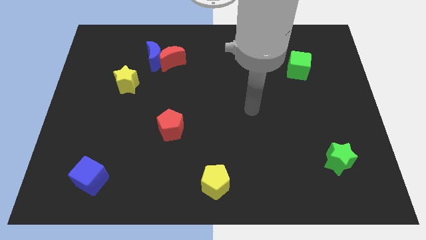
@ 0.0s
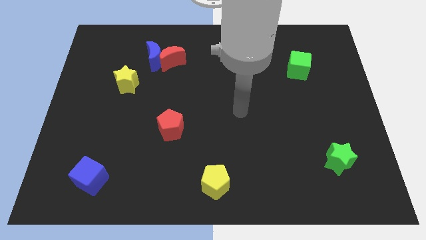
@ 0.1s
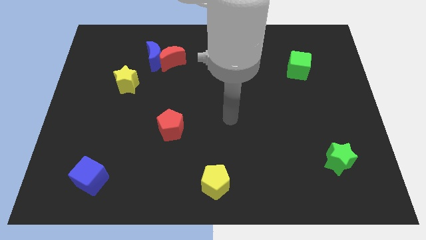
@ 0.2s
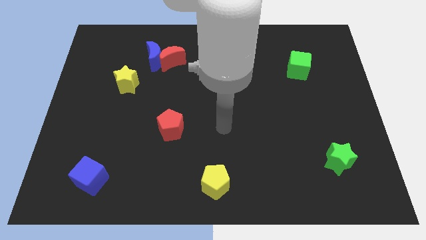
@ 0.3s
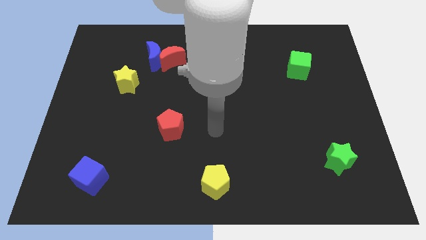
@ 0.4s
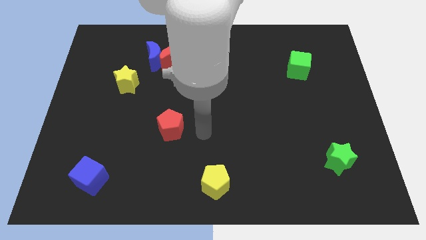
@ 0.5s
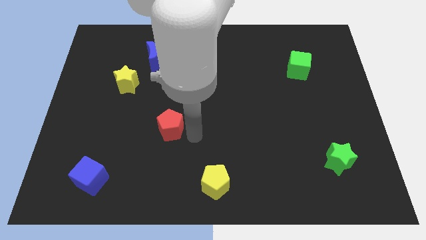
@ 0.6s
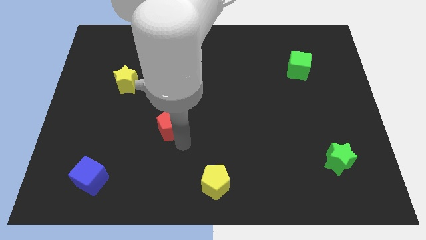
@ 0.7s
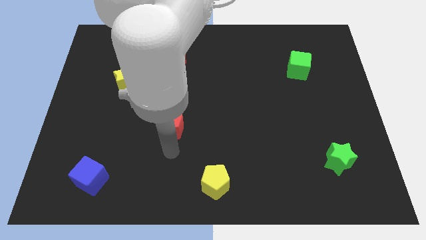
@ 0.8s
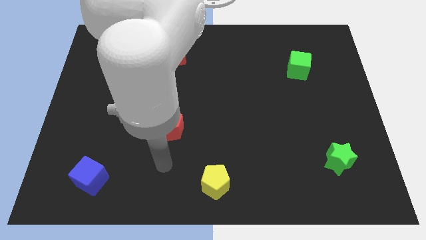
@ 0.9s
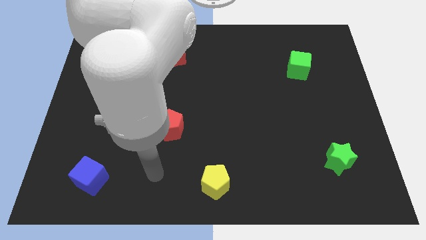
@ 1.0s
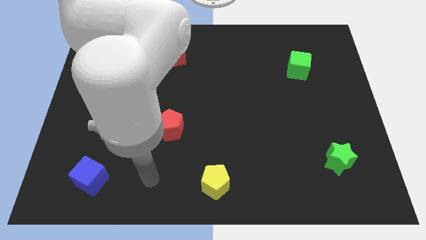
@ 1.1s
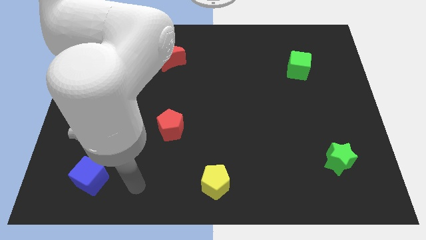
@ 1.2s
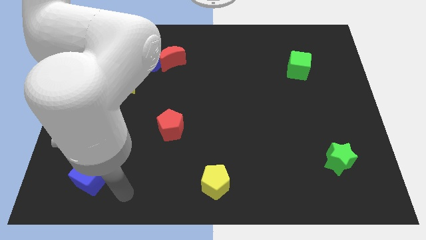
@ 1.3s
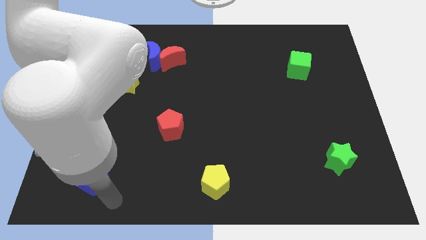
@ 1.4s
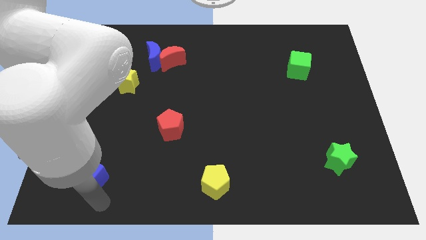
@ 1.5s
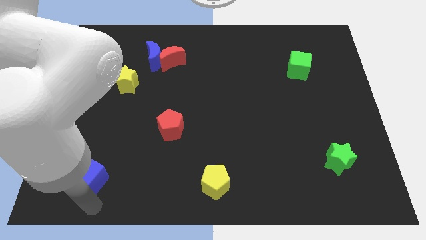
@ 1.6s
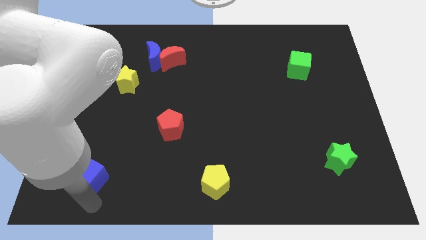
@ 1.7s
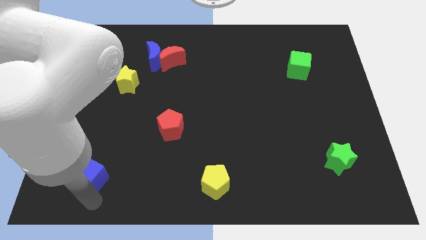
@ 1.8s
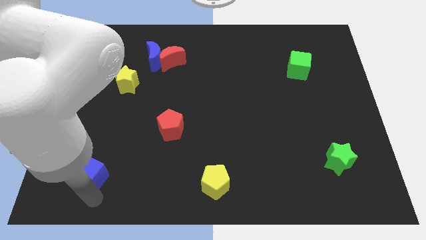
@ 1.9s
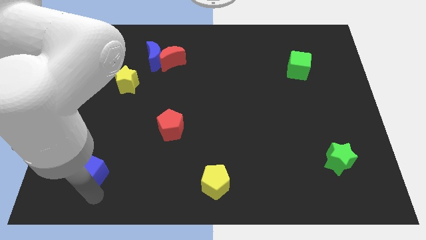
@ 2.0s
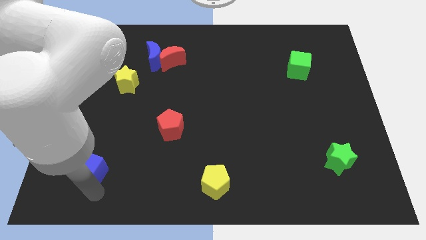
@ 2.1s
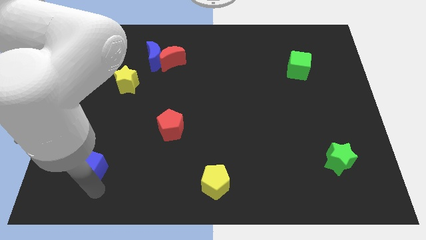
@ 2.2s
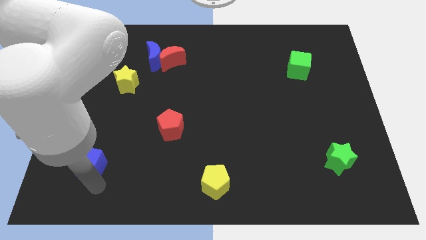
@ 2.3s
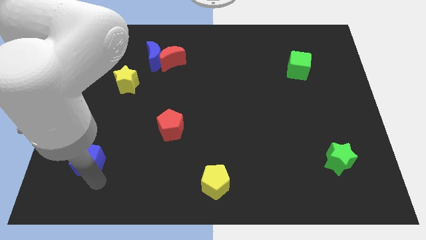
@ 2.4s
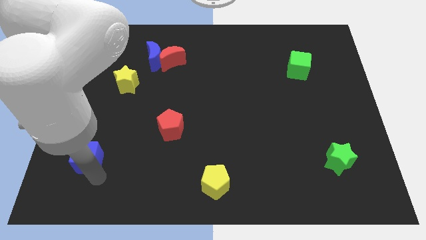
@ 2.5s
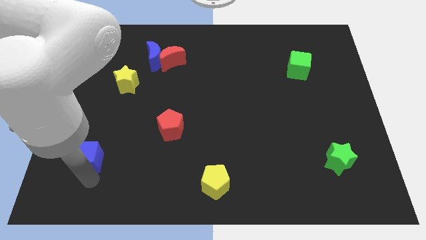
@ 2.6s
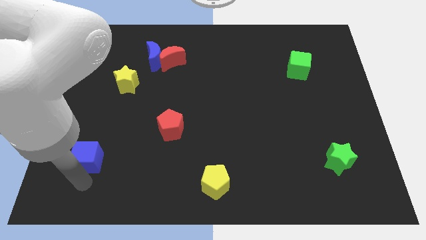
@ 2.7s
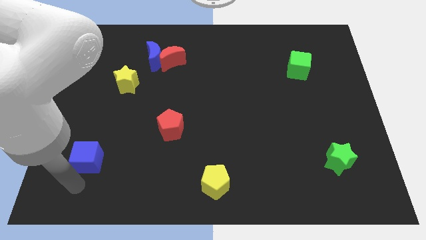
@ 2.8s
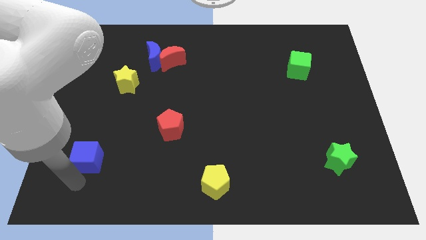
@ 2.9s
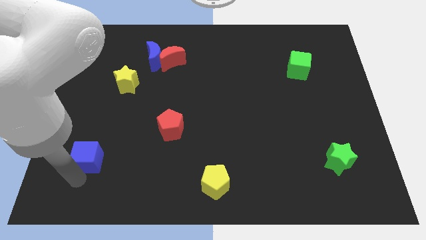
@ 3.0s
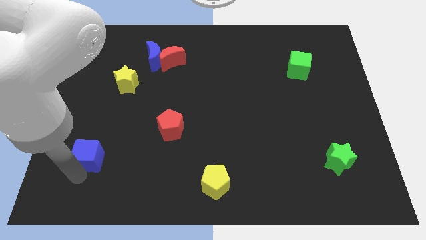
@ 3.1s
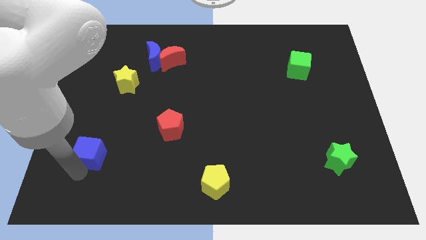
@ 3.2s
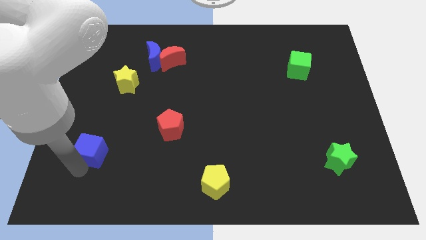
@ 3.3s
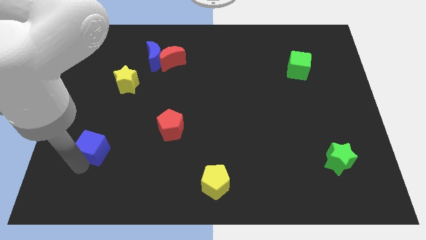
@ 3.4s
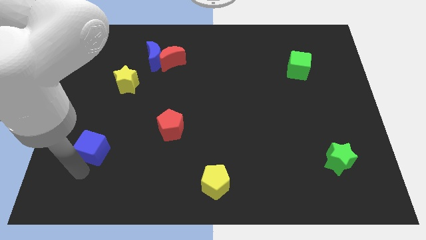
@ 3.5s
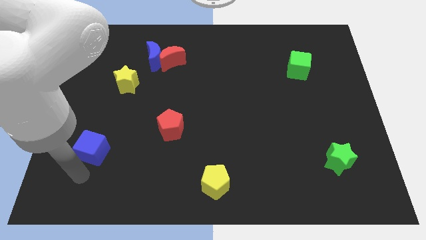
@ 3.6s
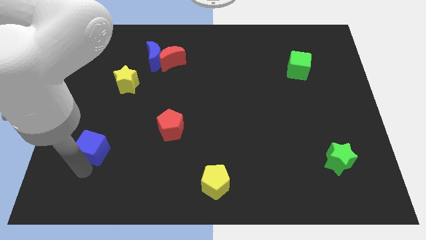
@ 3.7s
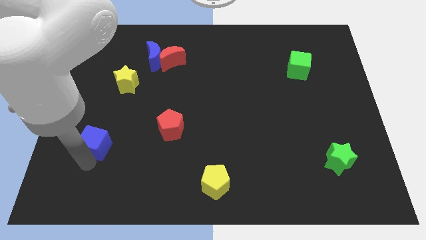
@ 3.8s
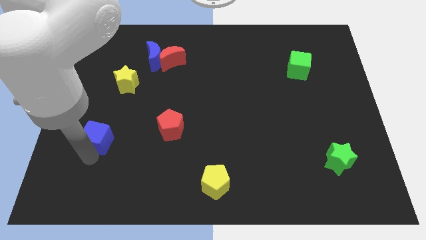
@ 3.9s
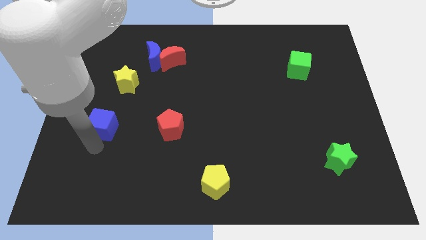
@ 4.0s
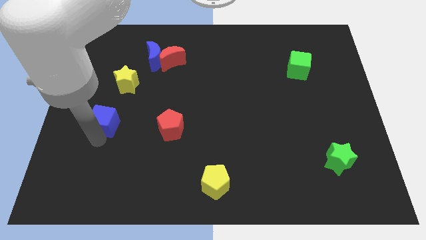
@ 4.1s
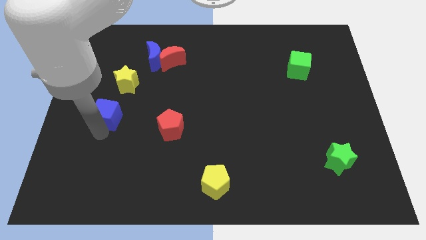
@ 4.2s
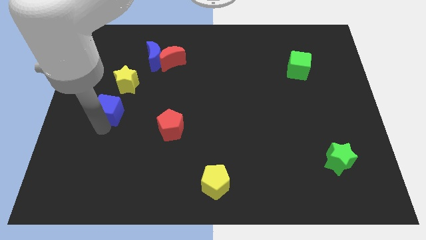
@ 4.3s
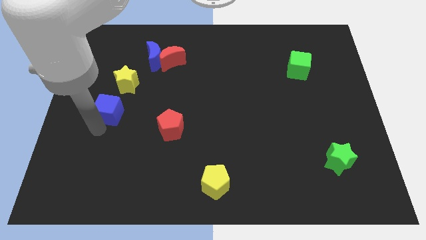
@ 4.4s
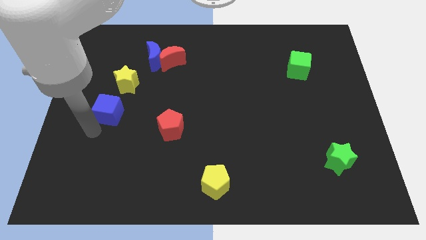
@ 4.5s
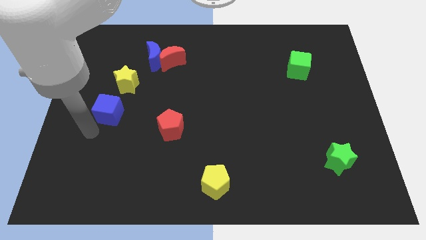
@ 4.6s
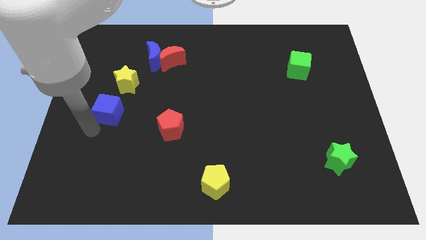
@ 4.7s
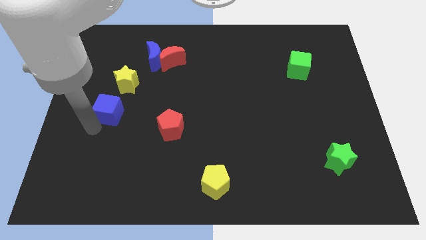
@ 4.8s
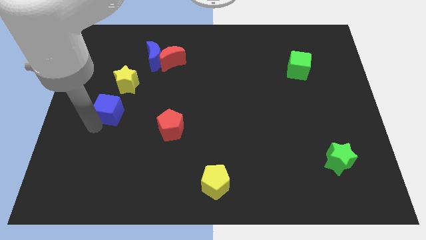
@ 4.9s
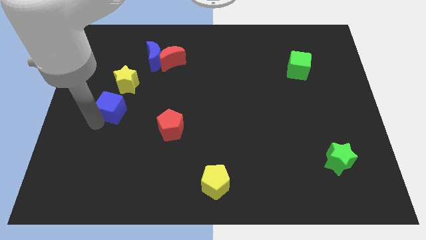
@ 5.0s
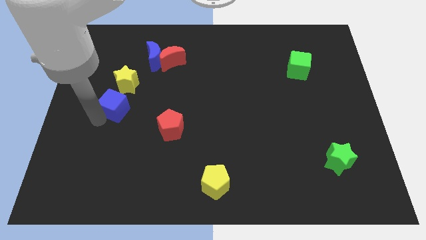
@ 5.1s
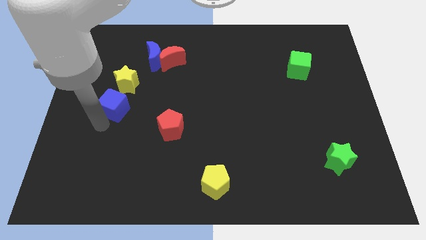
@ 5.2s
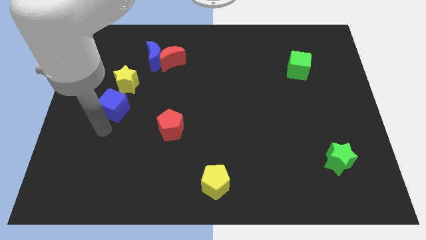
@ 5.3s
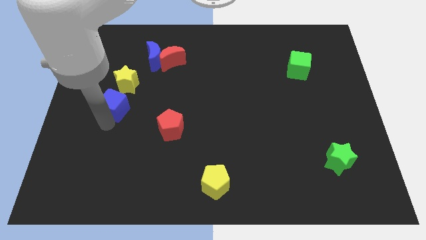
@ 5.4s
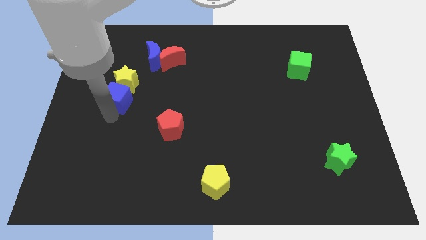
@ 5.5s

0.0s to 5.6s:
move the blue cube to the yellow star

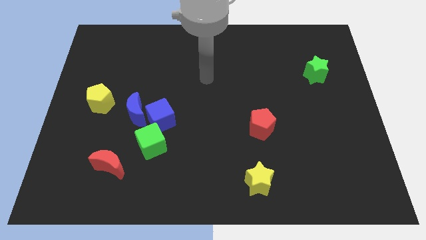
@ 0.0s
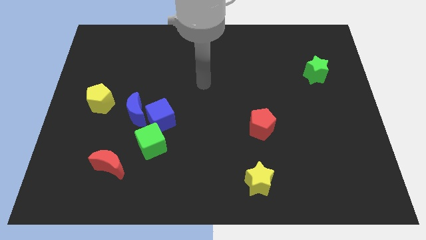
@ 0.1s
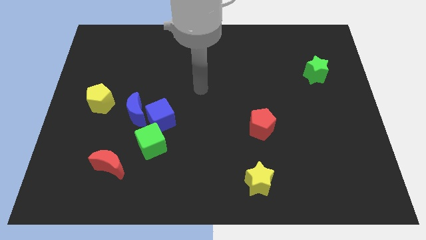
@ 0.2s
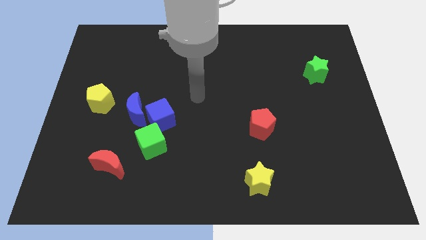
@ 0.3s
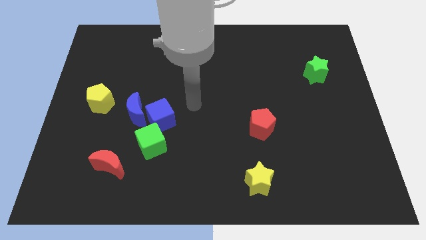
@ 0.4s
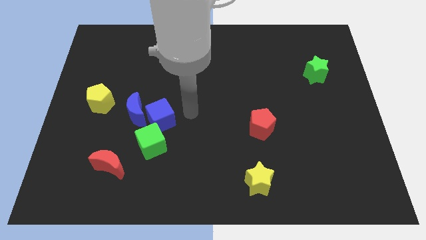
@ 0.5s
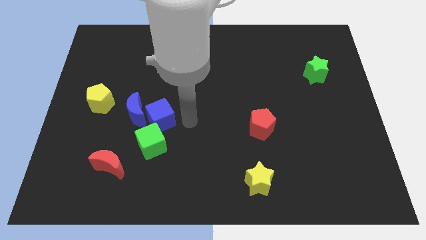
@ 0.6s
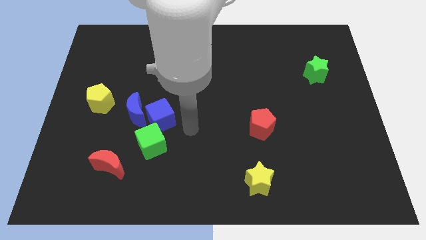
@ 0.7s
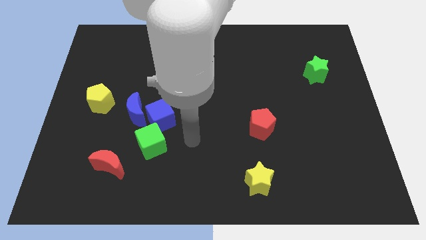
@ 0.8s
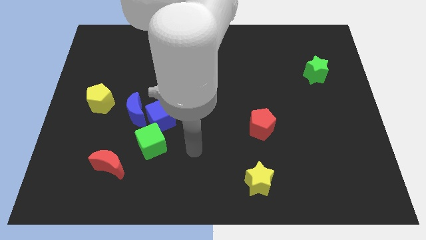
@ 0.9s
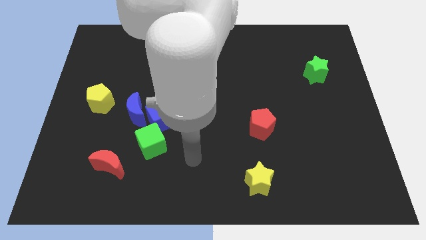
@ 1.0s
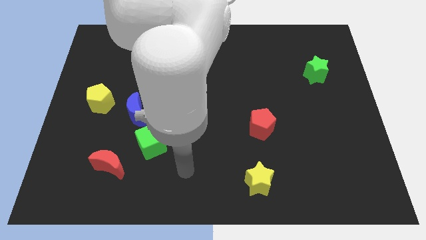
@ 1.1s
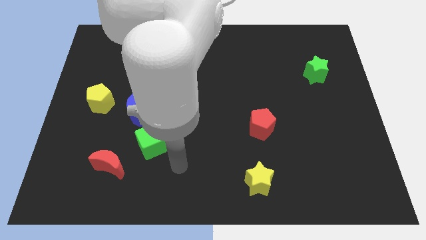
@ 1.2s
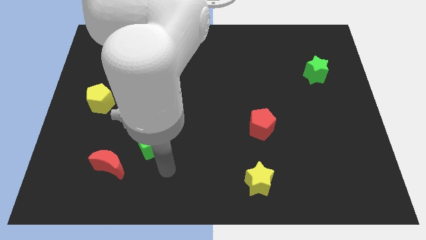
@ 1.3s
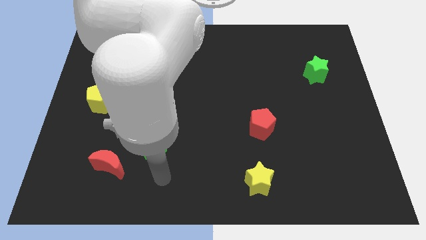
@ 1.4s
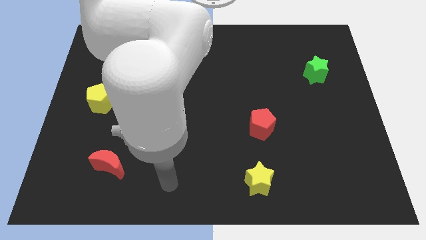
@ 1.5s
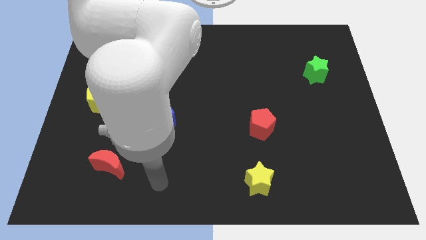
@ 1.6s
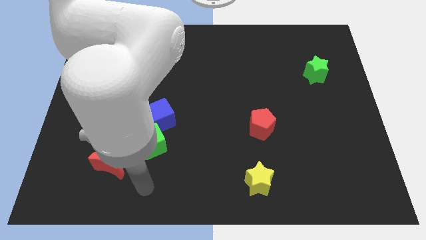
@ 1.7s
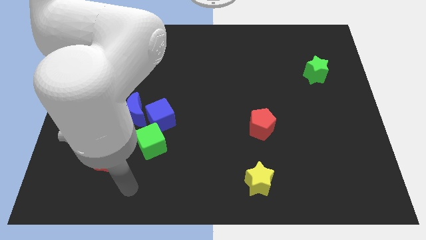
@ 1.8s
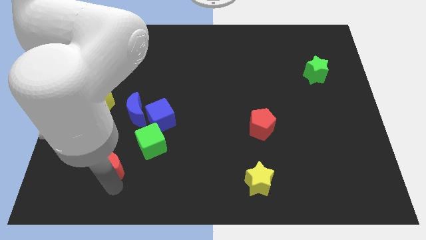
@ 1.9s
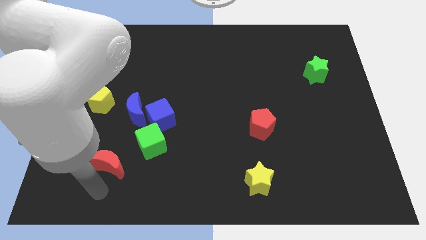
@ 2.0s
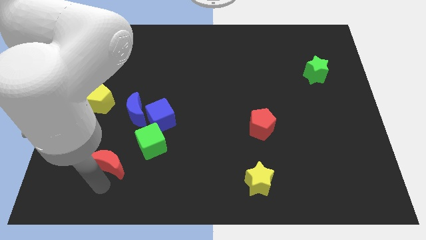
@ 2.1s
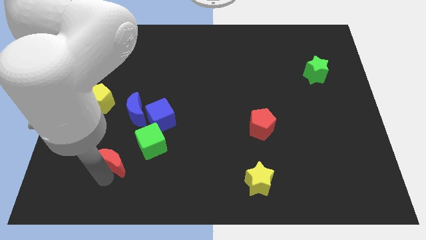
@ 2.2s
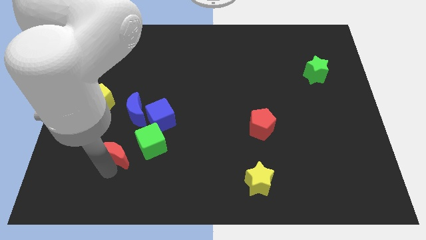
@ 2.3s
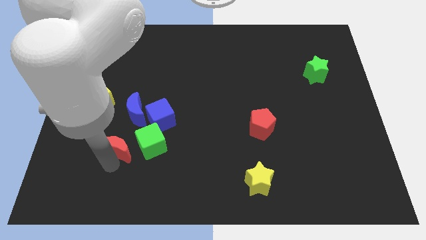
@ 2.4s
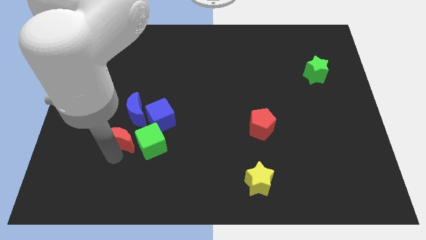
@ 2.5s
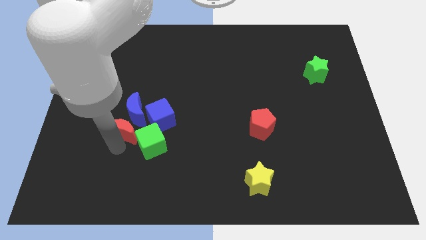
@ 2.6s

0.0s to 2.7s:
put the red moon next to the blue moon
